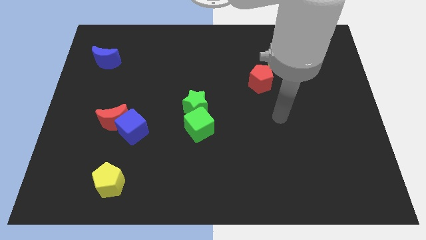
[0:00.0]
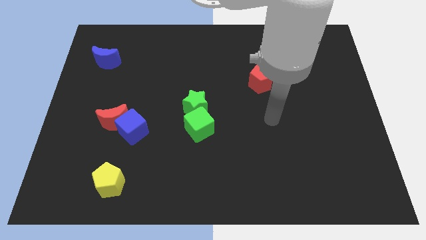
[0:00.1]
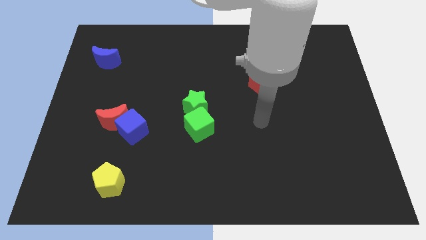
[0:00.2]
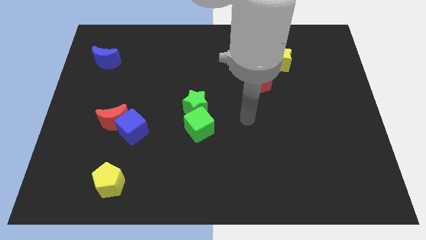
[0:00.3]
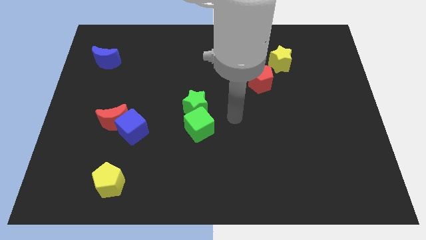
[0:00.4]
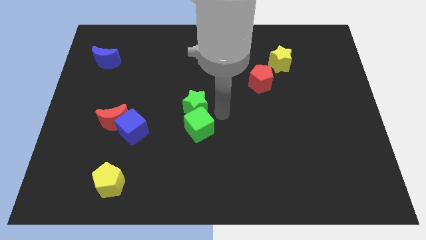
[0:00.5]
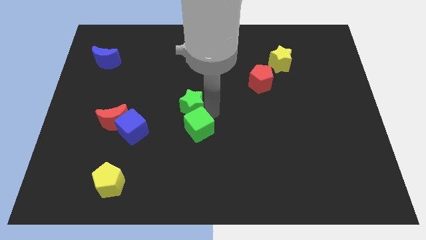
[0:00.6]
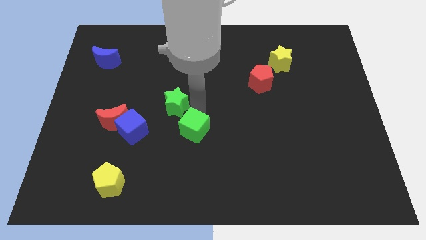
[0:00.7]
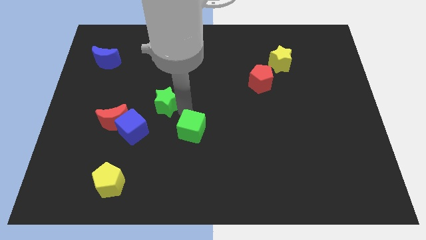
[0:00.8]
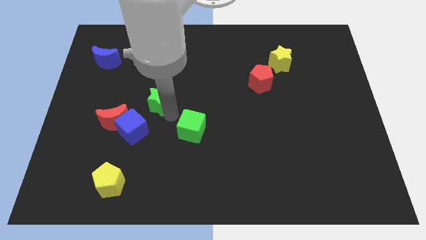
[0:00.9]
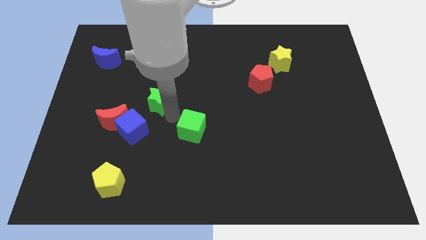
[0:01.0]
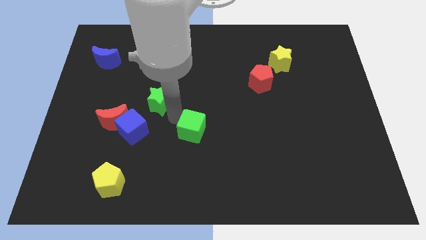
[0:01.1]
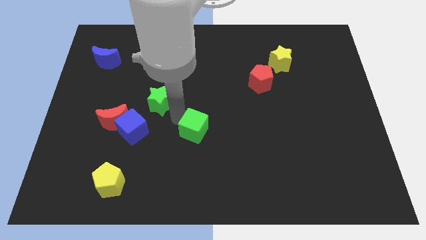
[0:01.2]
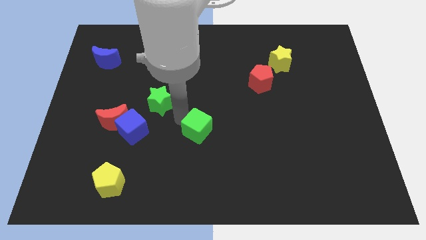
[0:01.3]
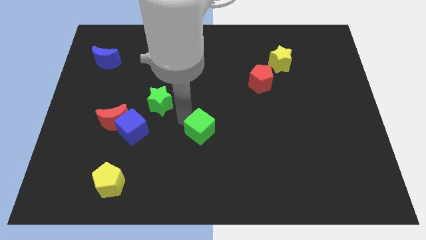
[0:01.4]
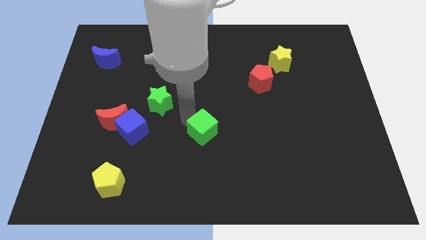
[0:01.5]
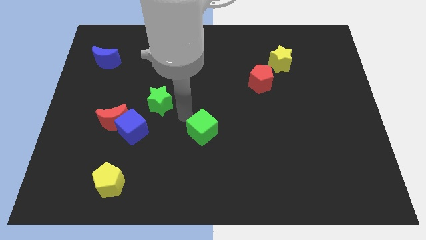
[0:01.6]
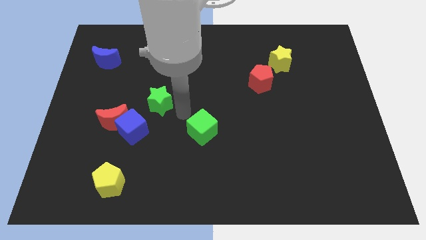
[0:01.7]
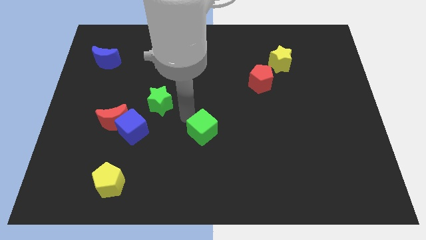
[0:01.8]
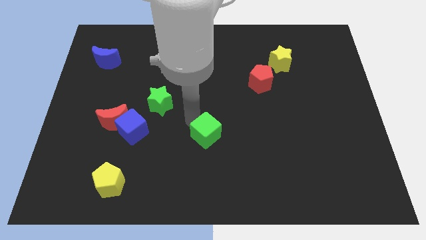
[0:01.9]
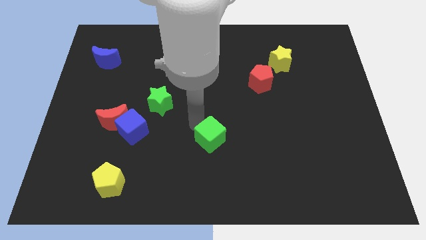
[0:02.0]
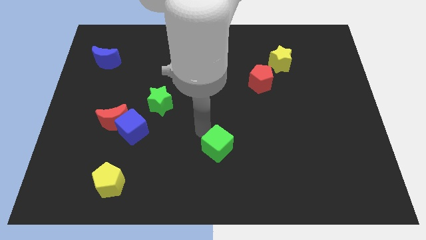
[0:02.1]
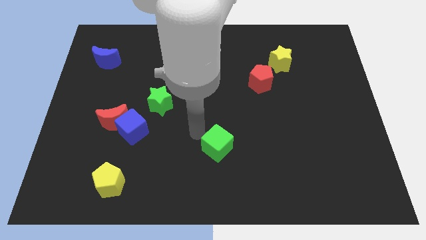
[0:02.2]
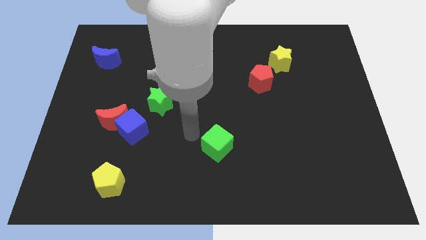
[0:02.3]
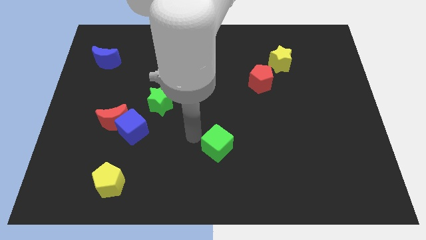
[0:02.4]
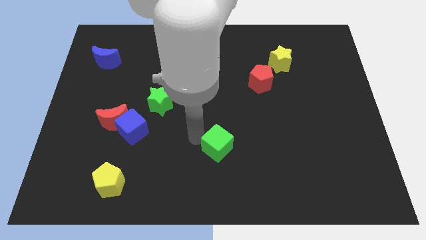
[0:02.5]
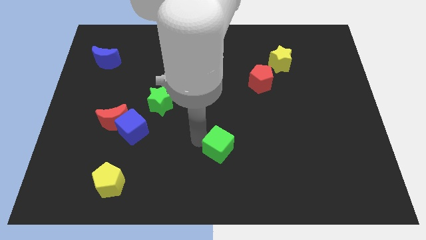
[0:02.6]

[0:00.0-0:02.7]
push the green cube downwards and to the right slightly

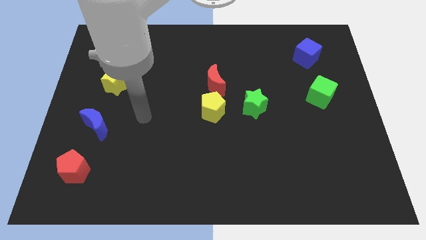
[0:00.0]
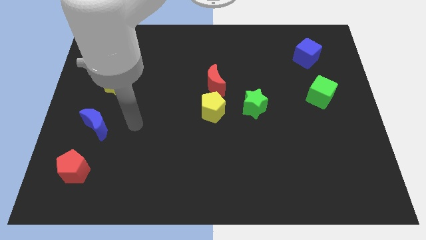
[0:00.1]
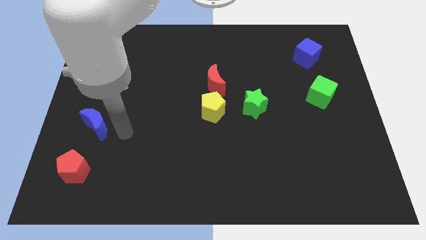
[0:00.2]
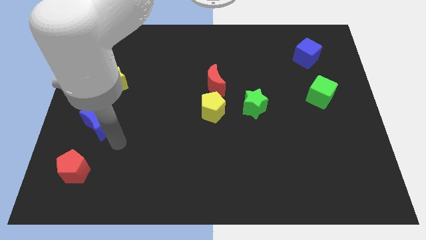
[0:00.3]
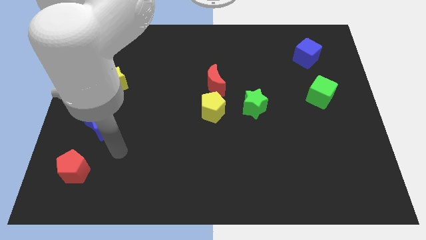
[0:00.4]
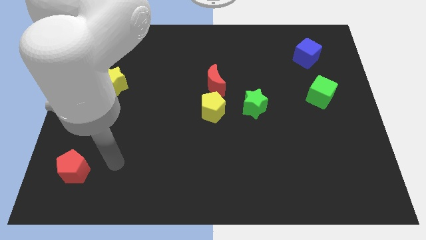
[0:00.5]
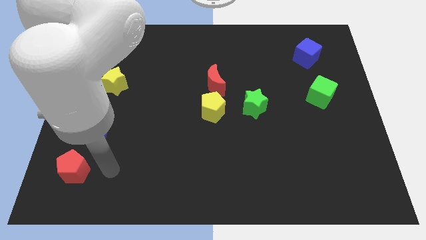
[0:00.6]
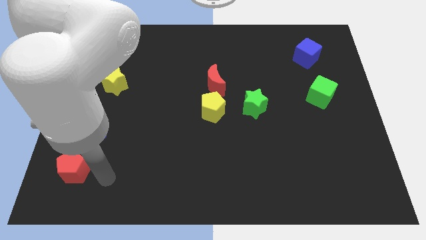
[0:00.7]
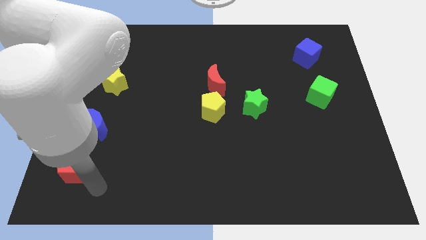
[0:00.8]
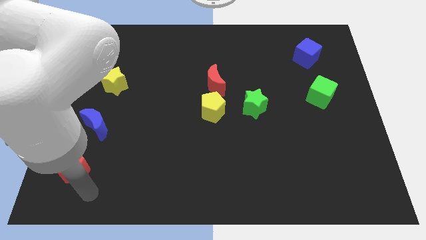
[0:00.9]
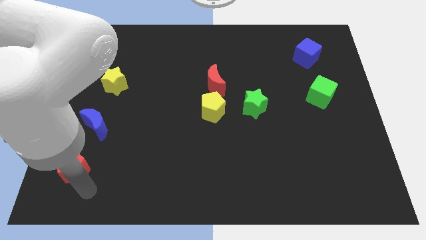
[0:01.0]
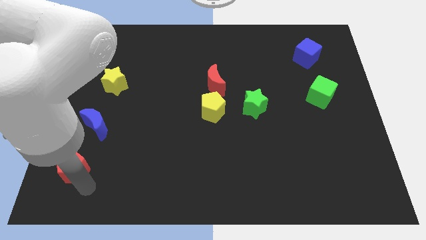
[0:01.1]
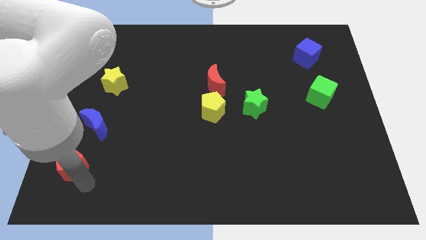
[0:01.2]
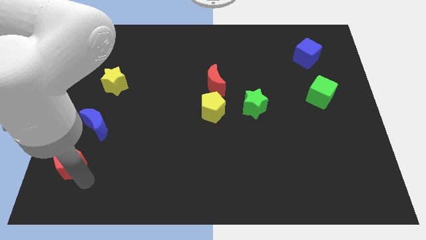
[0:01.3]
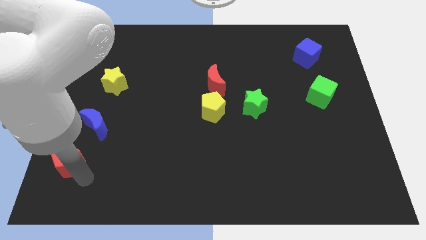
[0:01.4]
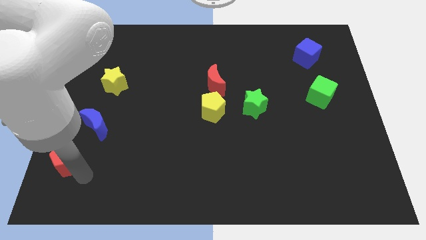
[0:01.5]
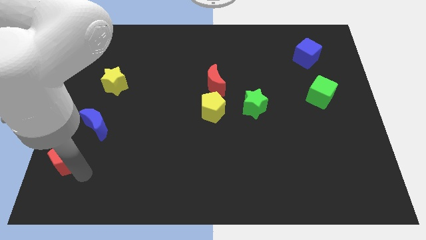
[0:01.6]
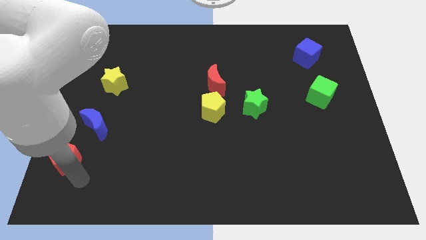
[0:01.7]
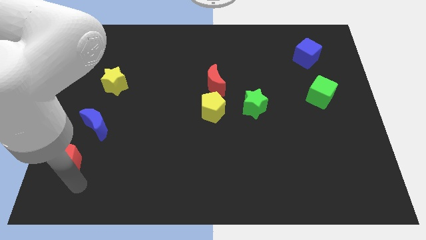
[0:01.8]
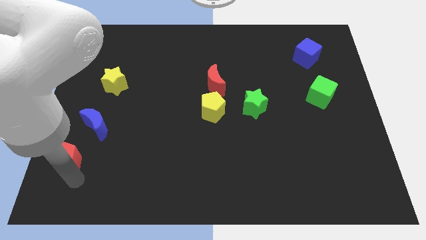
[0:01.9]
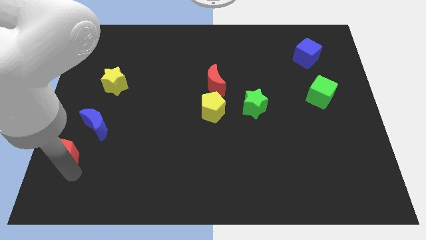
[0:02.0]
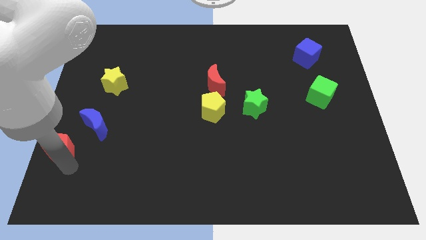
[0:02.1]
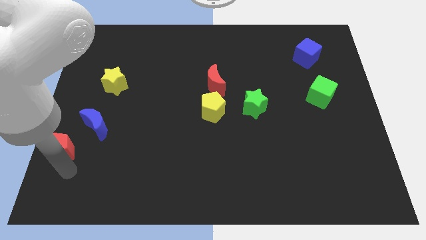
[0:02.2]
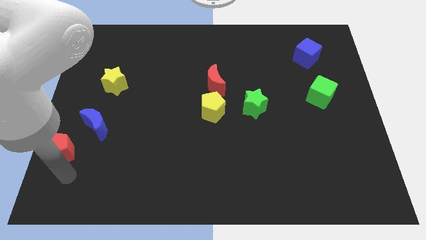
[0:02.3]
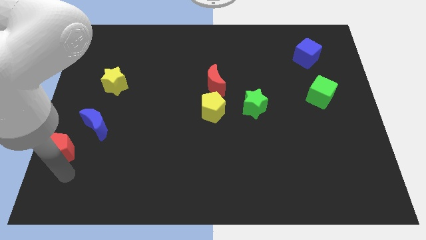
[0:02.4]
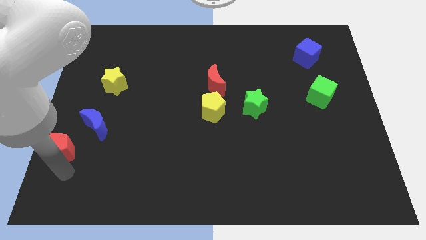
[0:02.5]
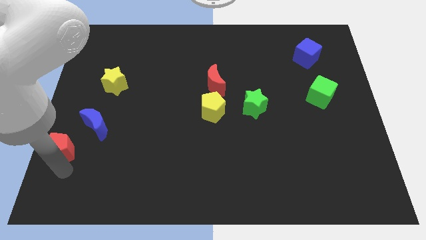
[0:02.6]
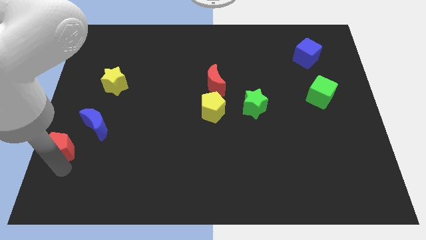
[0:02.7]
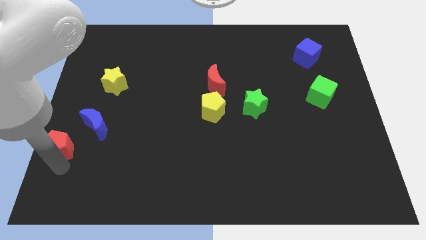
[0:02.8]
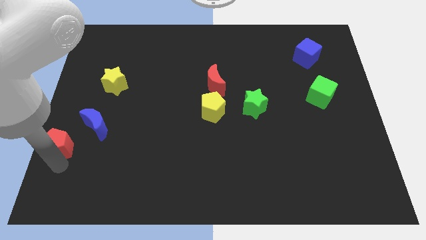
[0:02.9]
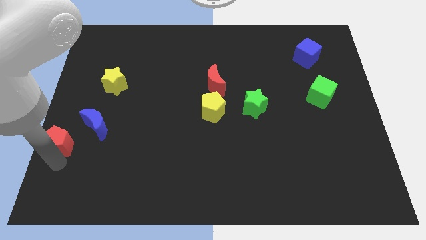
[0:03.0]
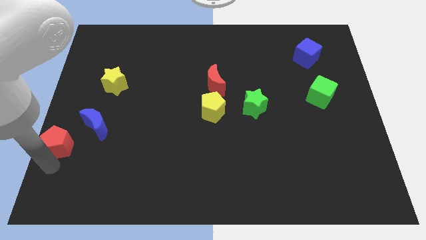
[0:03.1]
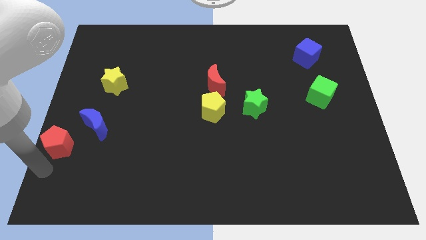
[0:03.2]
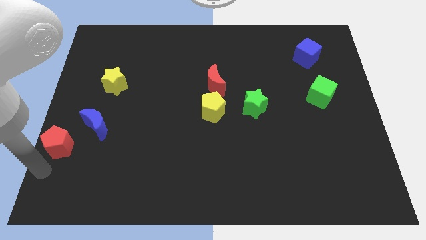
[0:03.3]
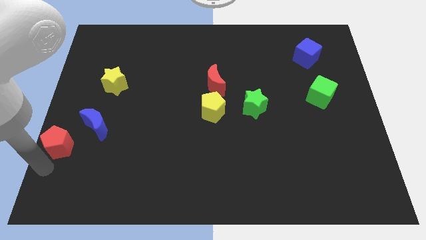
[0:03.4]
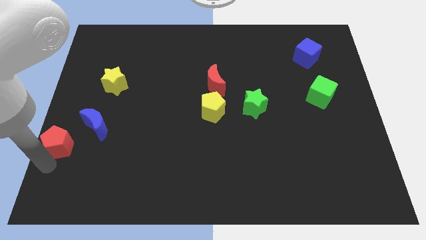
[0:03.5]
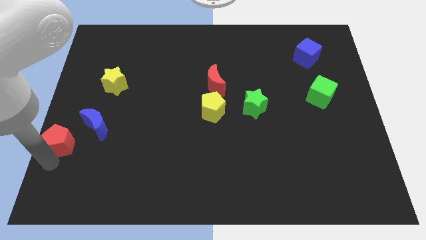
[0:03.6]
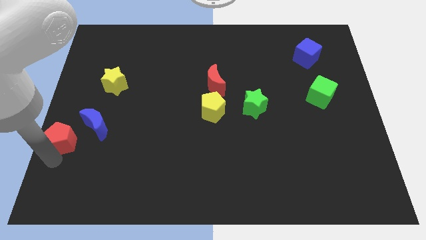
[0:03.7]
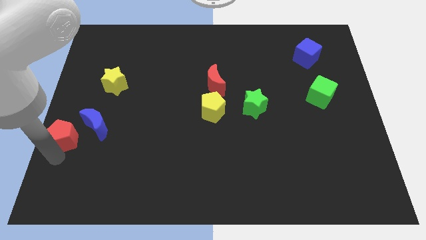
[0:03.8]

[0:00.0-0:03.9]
slide the red pentagon a bit upwards

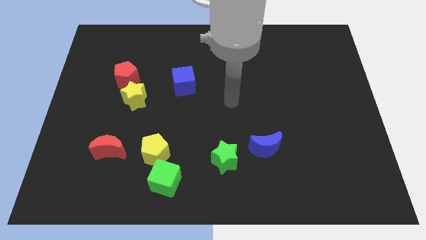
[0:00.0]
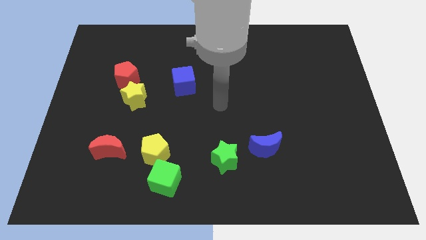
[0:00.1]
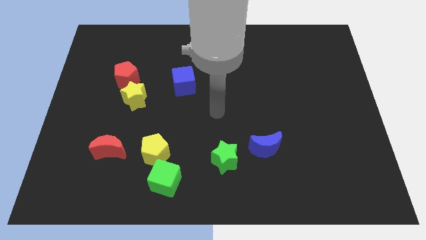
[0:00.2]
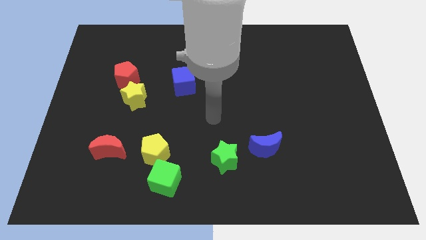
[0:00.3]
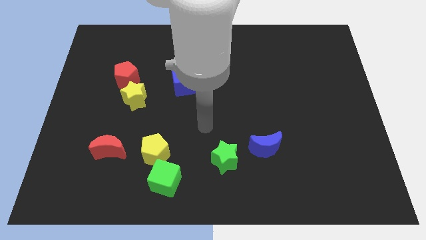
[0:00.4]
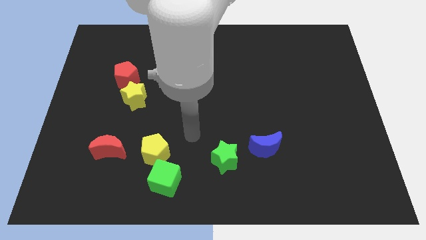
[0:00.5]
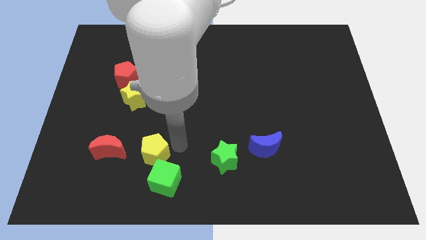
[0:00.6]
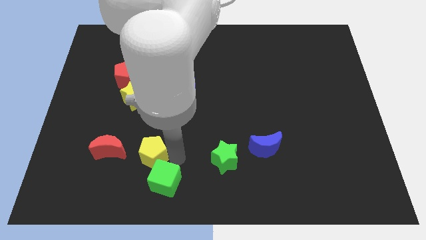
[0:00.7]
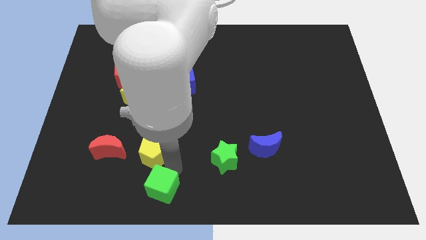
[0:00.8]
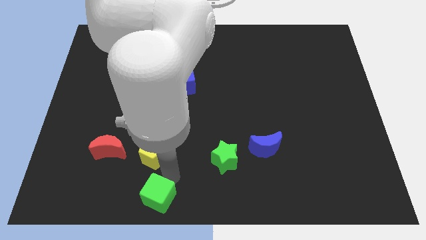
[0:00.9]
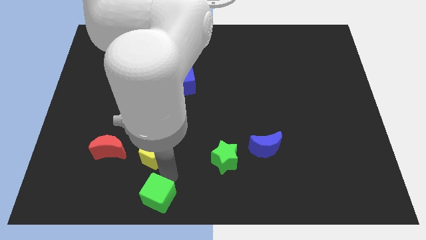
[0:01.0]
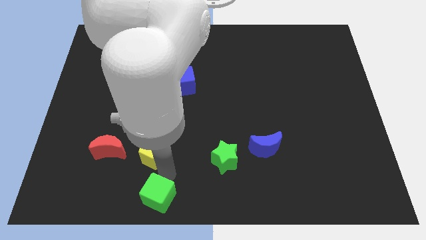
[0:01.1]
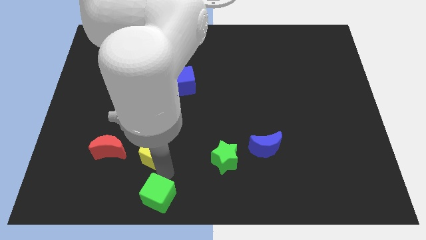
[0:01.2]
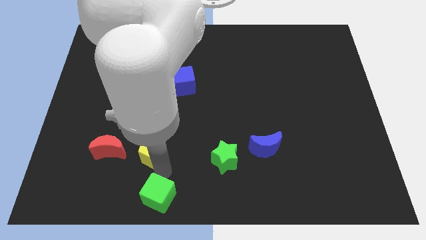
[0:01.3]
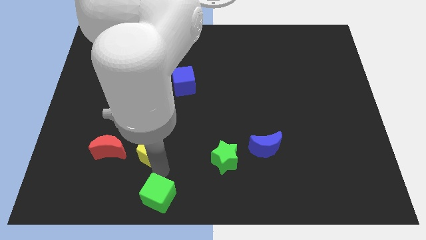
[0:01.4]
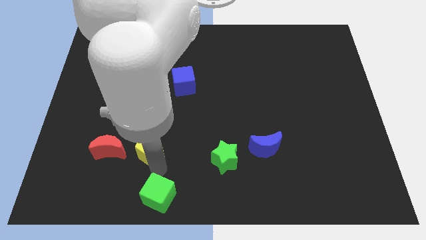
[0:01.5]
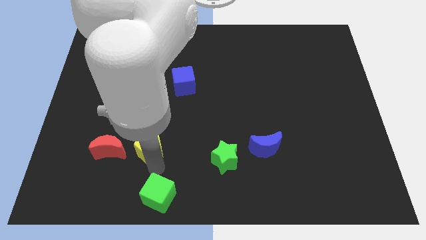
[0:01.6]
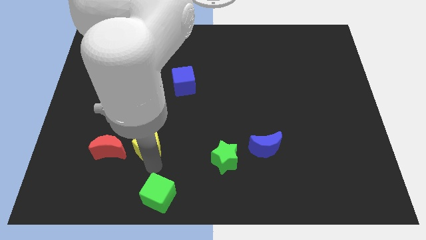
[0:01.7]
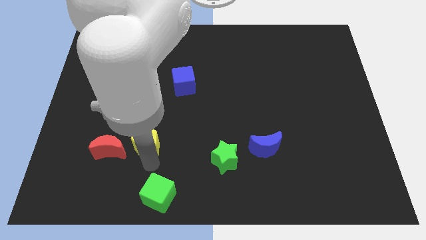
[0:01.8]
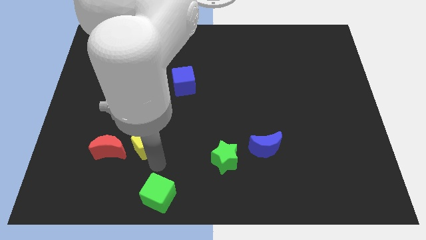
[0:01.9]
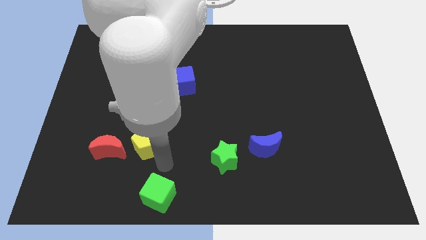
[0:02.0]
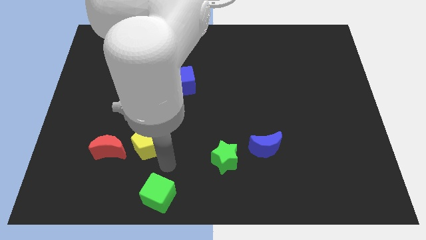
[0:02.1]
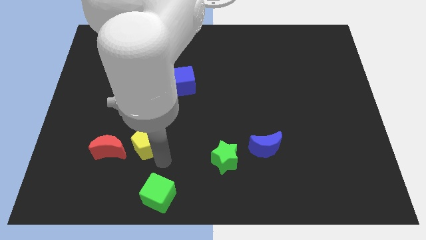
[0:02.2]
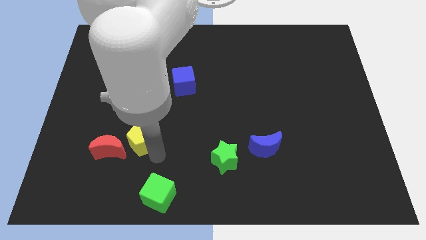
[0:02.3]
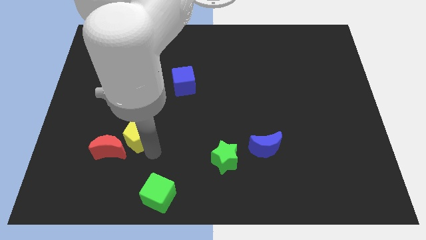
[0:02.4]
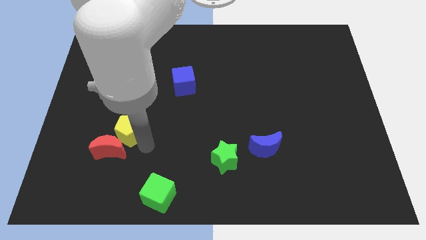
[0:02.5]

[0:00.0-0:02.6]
move the yellow pentagon a little bit diagonally upwards and left
